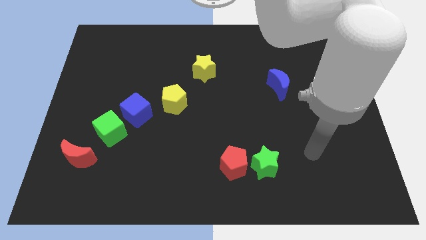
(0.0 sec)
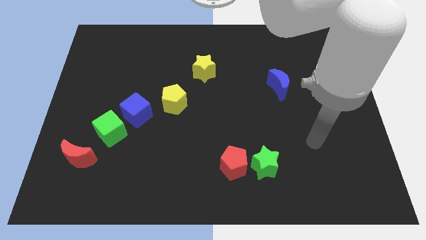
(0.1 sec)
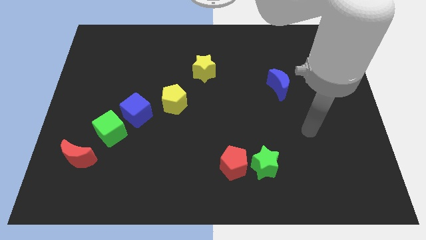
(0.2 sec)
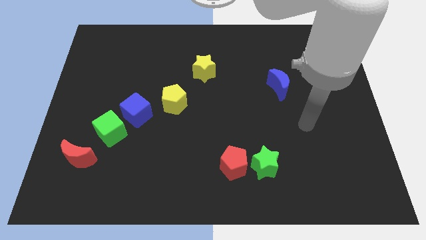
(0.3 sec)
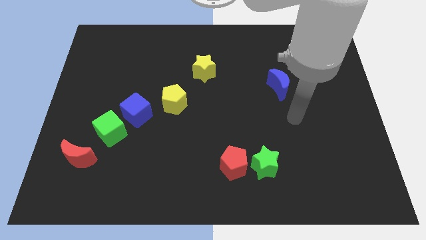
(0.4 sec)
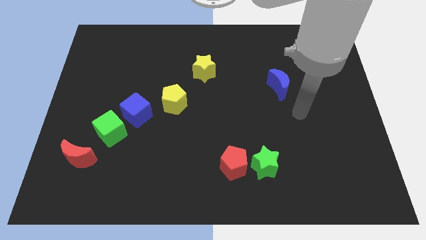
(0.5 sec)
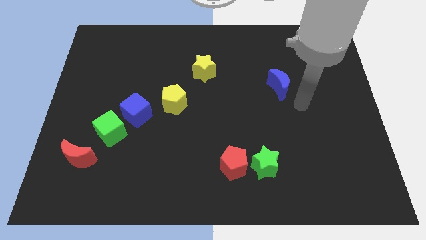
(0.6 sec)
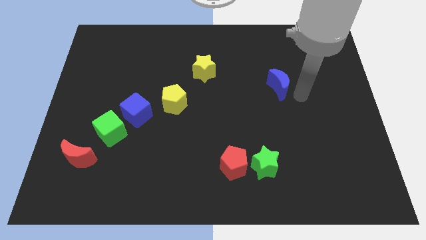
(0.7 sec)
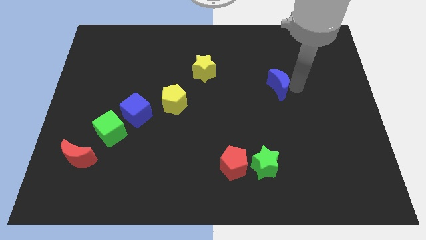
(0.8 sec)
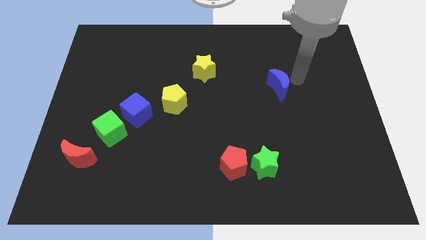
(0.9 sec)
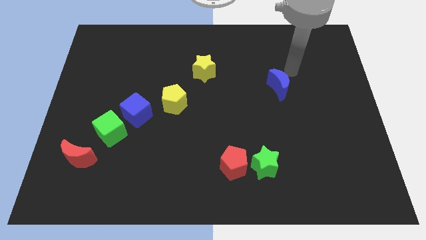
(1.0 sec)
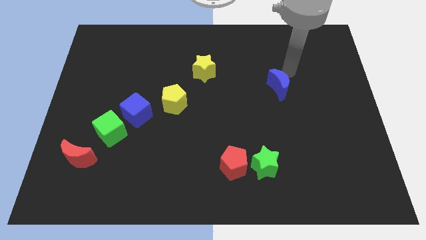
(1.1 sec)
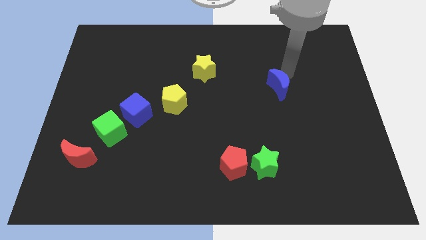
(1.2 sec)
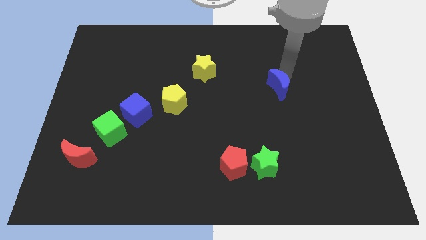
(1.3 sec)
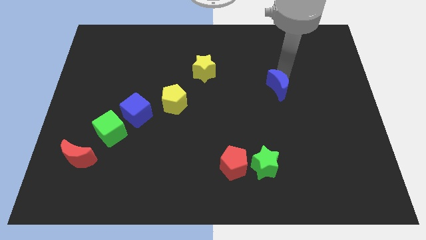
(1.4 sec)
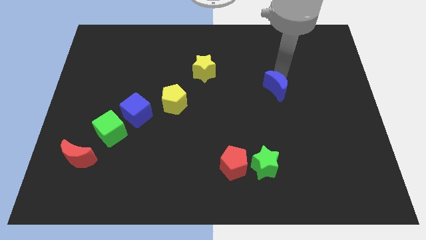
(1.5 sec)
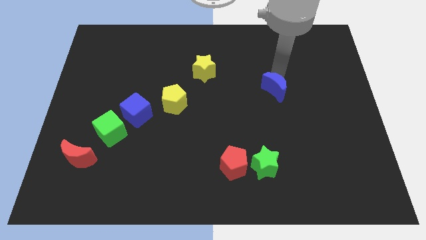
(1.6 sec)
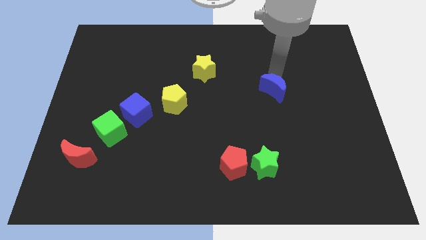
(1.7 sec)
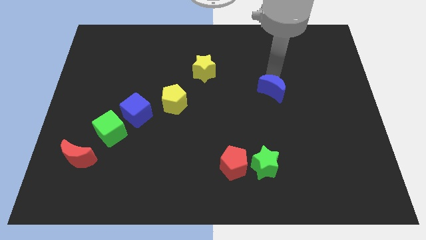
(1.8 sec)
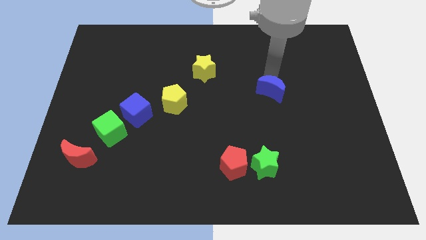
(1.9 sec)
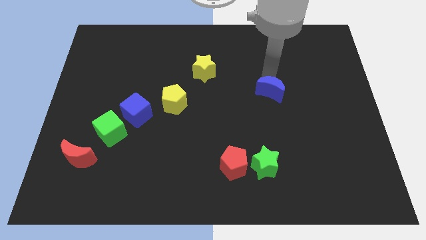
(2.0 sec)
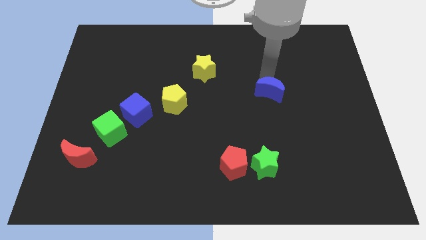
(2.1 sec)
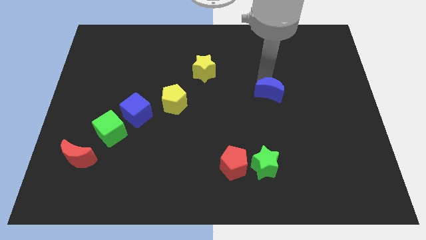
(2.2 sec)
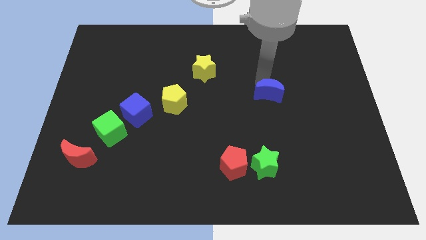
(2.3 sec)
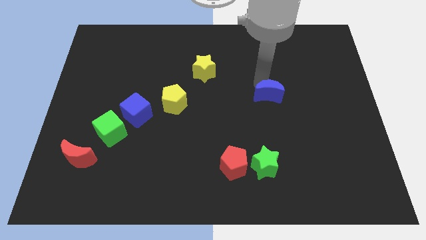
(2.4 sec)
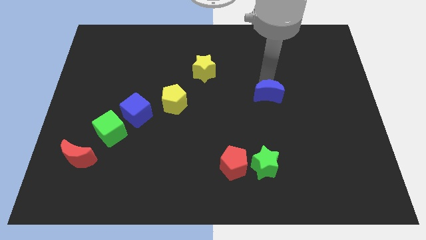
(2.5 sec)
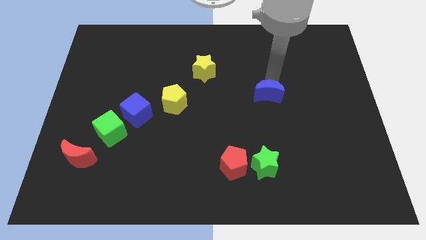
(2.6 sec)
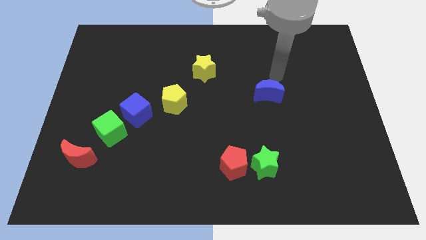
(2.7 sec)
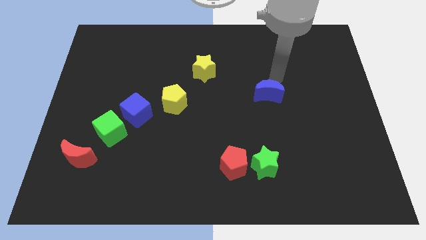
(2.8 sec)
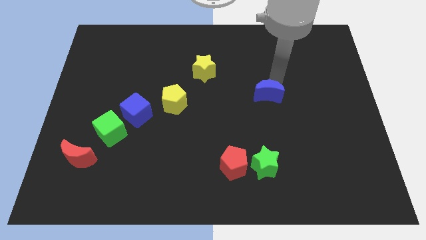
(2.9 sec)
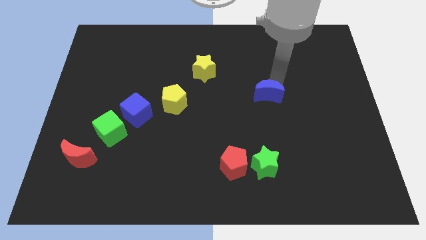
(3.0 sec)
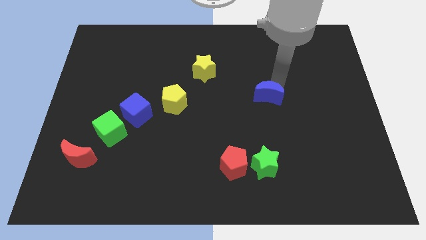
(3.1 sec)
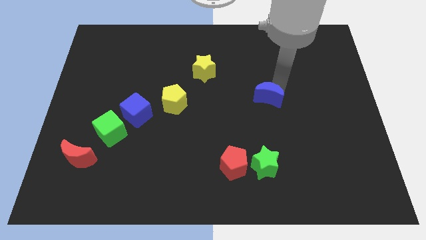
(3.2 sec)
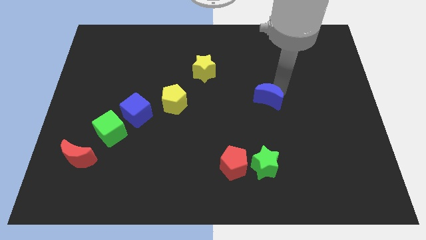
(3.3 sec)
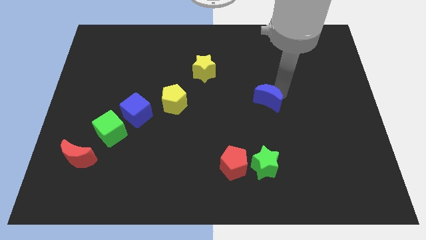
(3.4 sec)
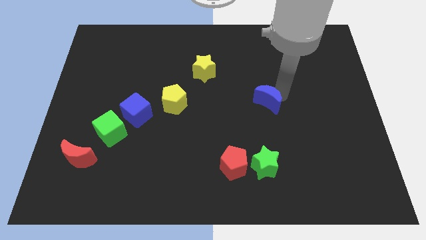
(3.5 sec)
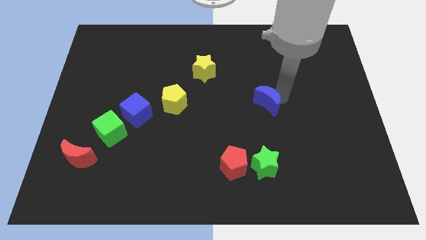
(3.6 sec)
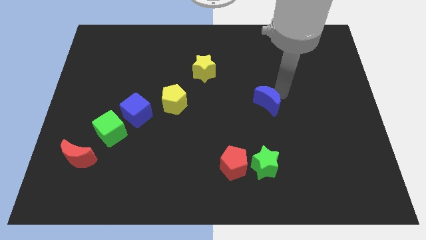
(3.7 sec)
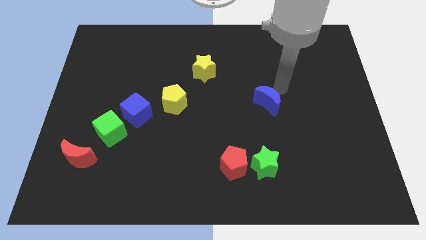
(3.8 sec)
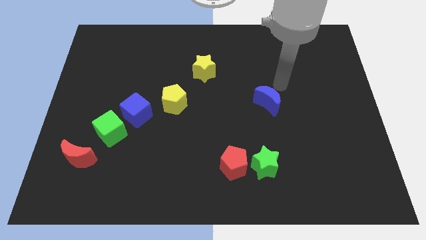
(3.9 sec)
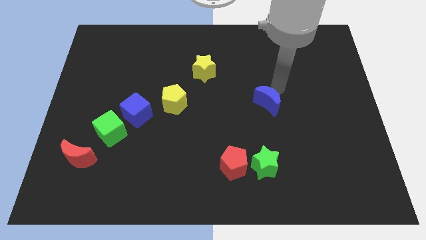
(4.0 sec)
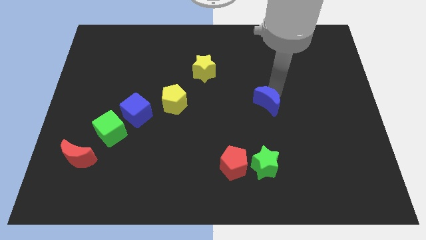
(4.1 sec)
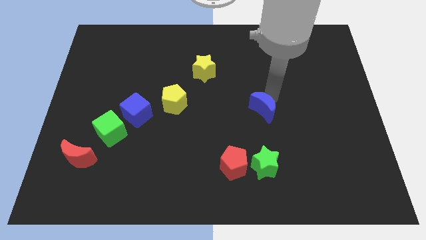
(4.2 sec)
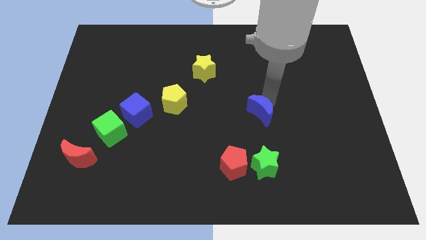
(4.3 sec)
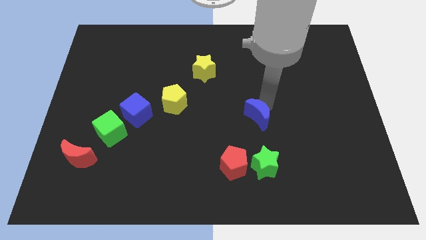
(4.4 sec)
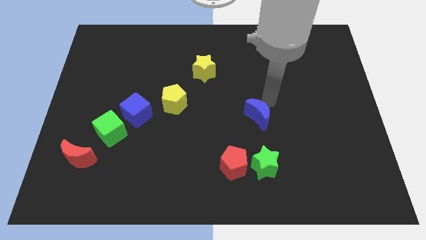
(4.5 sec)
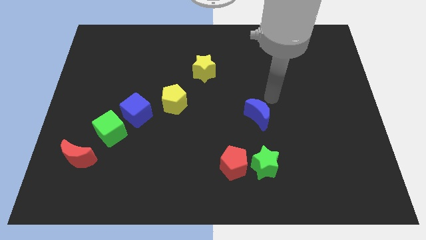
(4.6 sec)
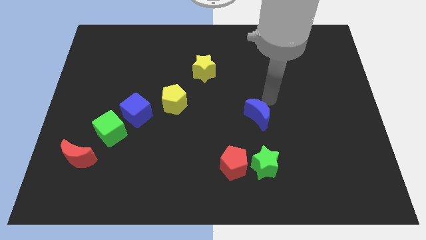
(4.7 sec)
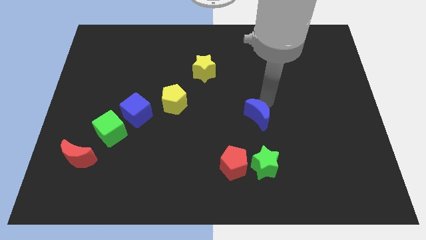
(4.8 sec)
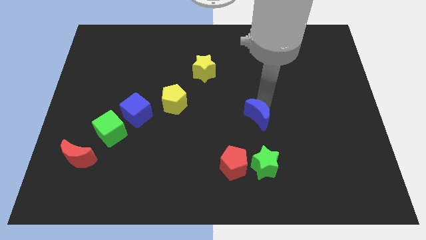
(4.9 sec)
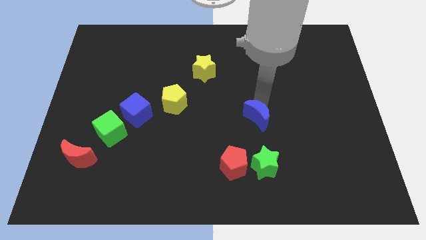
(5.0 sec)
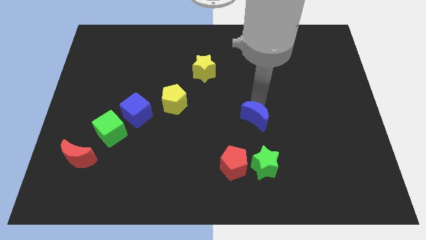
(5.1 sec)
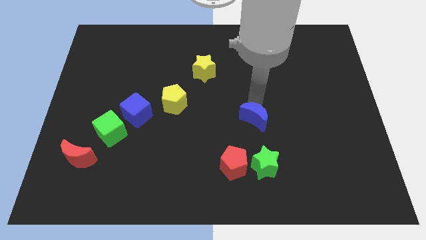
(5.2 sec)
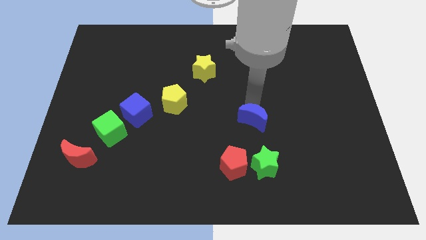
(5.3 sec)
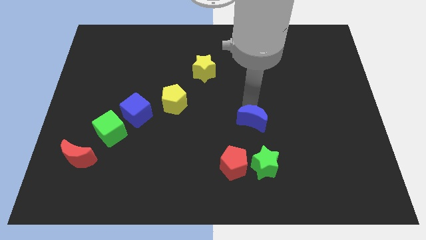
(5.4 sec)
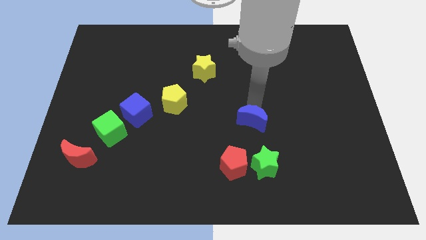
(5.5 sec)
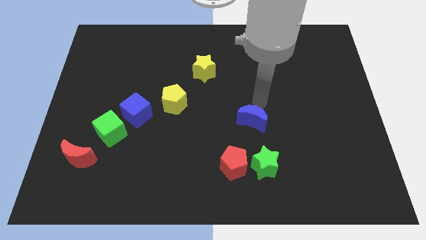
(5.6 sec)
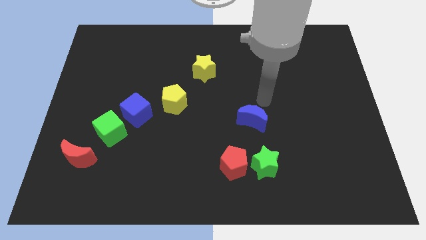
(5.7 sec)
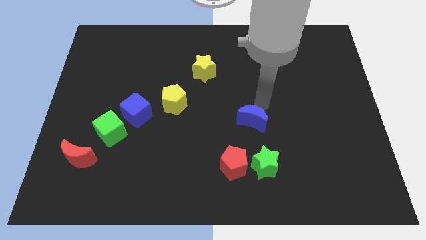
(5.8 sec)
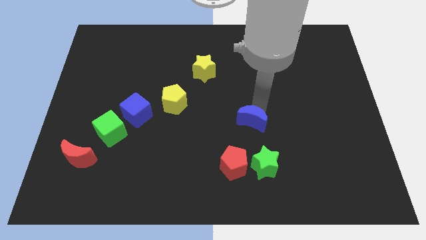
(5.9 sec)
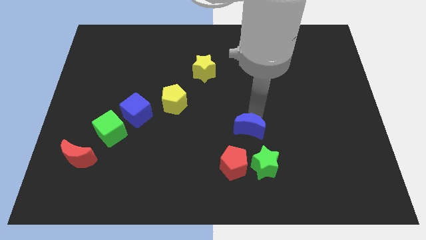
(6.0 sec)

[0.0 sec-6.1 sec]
push the blue moon to the top left side of the green star
